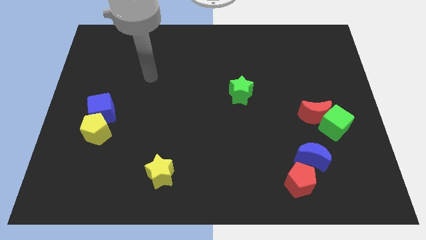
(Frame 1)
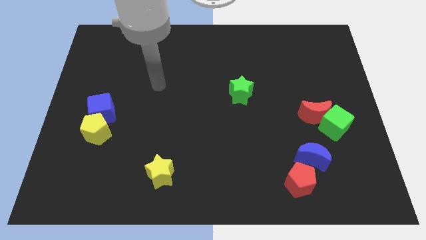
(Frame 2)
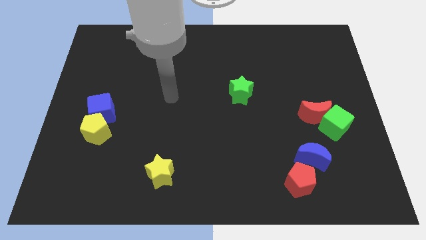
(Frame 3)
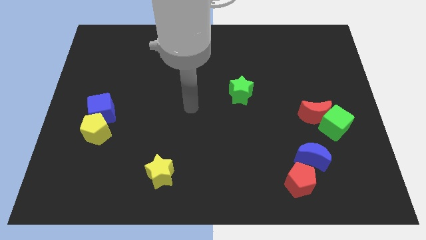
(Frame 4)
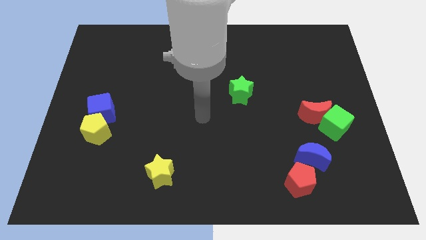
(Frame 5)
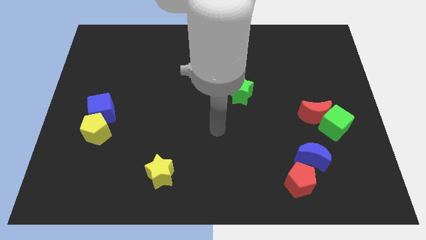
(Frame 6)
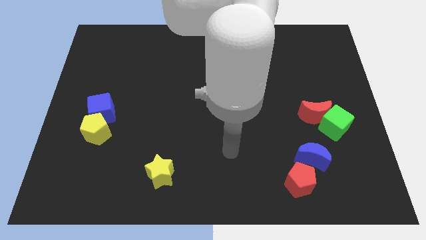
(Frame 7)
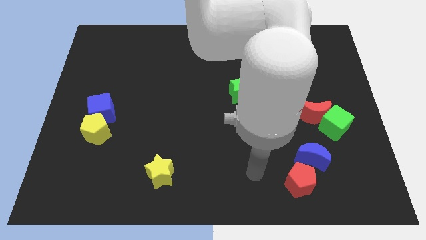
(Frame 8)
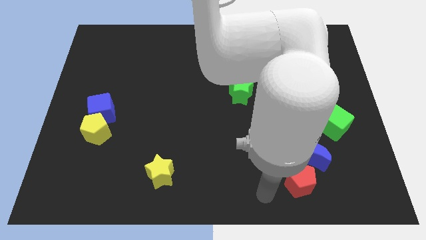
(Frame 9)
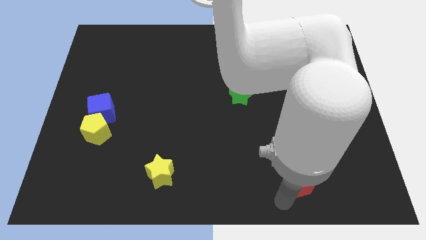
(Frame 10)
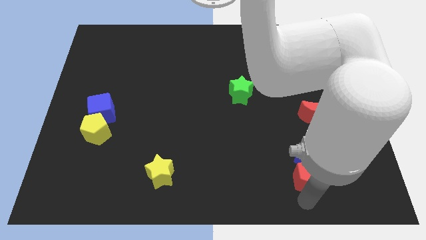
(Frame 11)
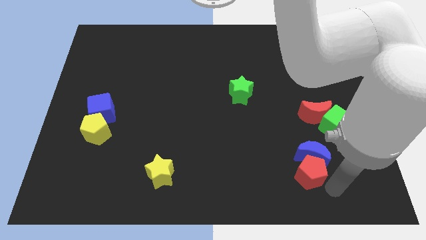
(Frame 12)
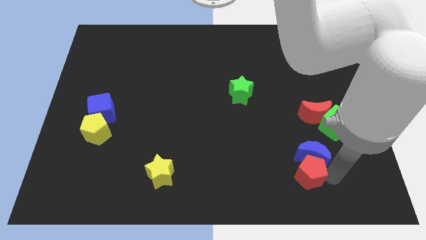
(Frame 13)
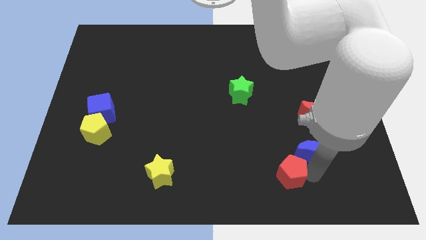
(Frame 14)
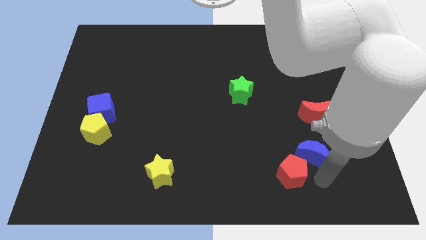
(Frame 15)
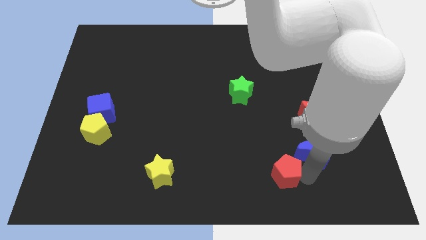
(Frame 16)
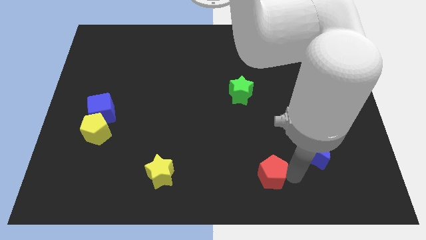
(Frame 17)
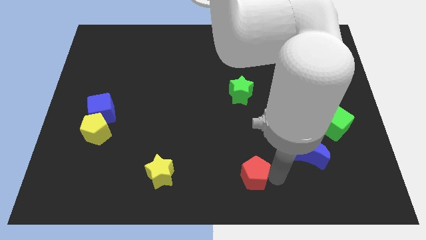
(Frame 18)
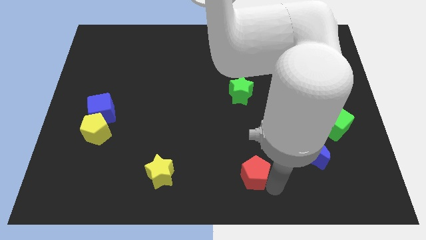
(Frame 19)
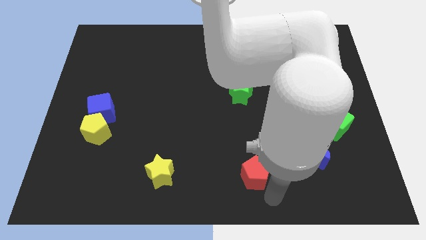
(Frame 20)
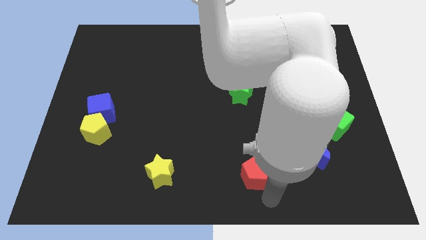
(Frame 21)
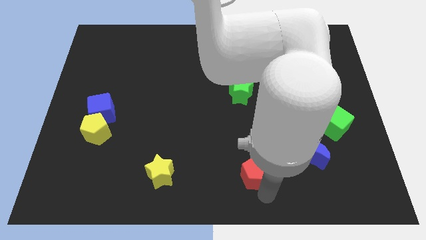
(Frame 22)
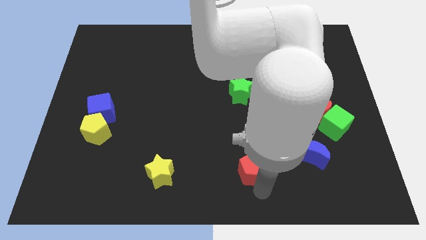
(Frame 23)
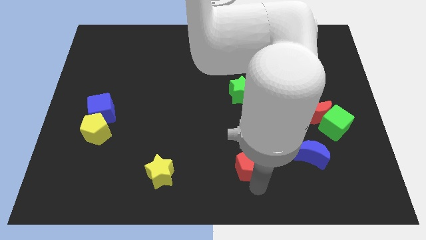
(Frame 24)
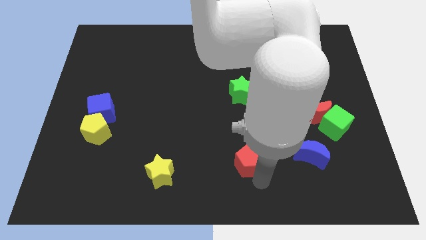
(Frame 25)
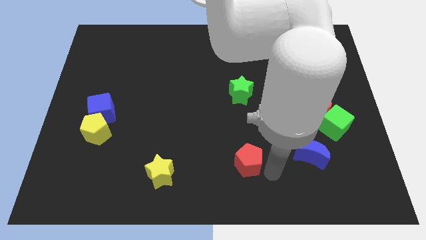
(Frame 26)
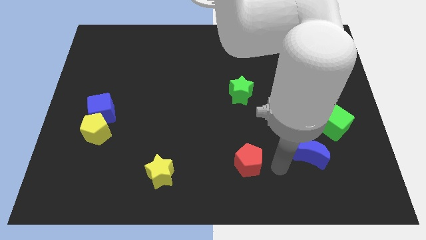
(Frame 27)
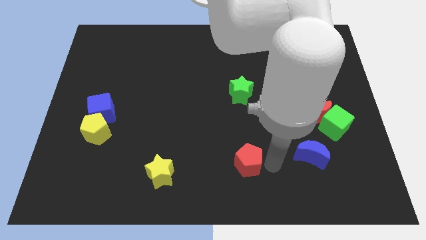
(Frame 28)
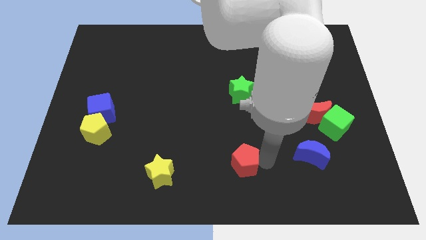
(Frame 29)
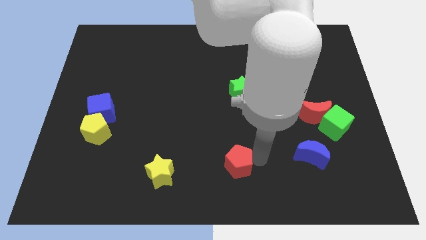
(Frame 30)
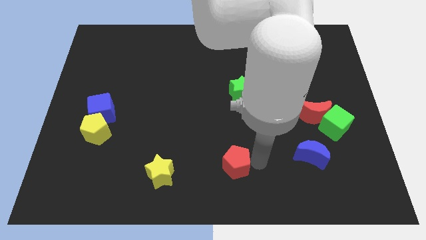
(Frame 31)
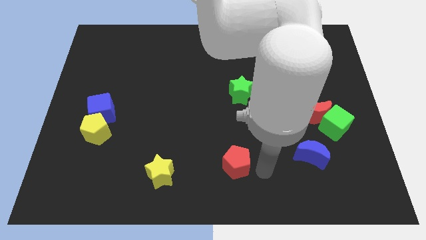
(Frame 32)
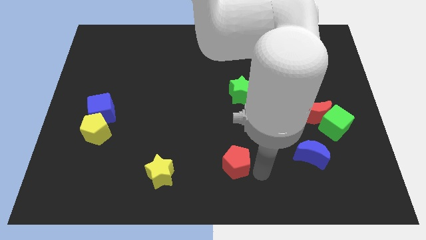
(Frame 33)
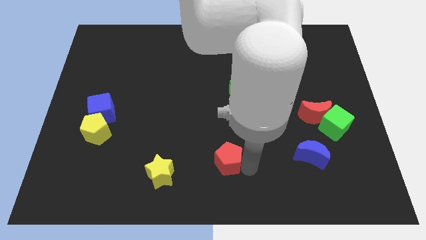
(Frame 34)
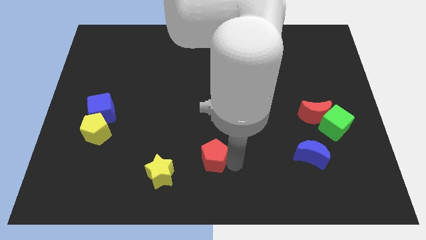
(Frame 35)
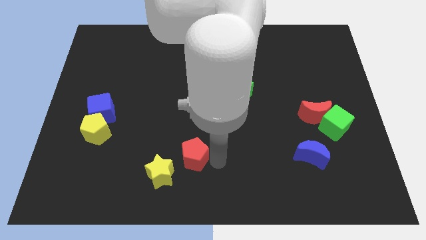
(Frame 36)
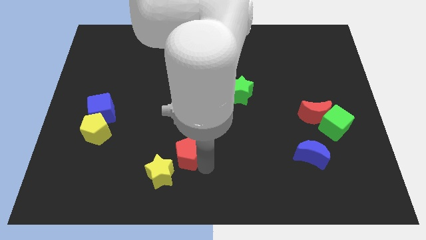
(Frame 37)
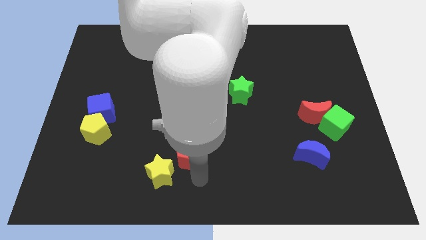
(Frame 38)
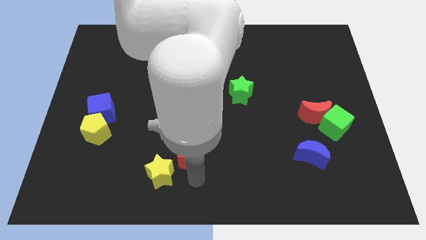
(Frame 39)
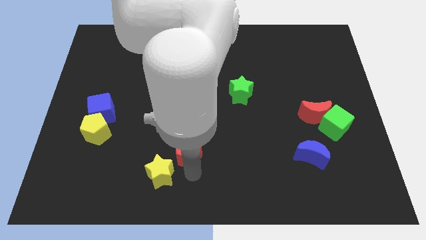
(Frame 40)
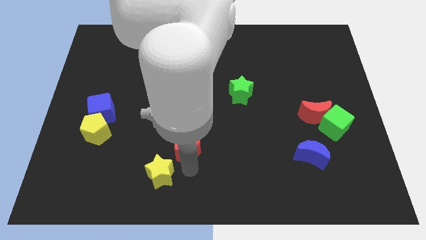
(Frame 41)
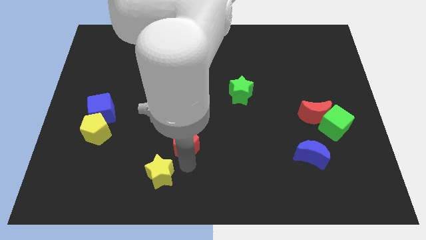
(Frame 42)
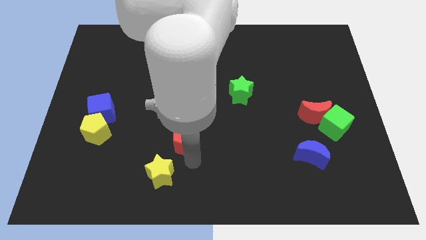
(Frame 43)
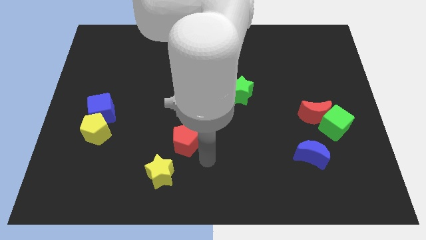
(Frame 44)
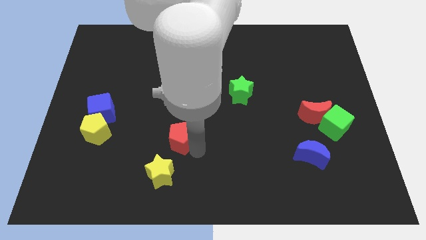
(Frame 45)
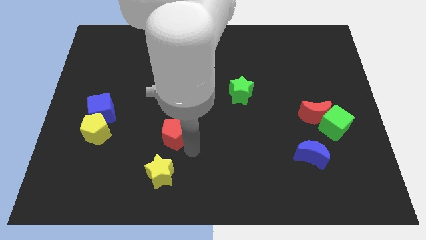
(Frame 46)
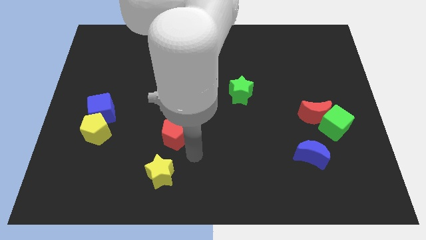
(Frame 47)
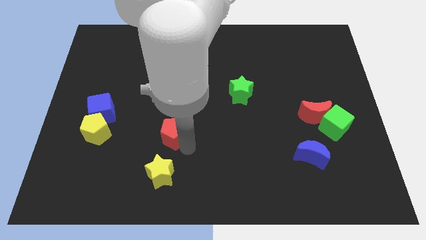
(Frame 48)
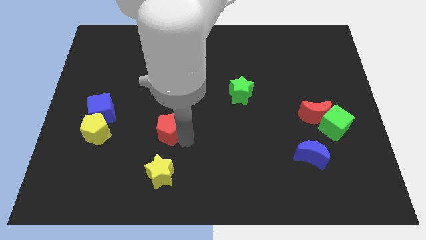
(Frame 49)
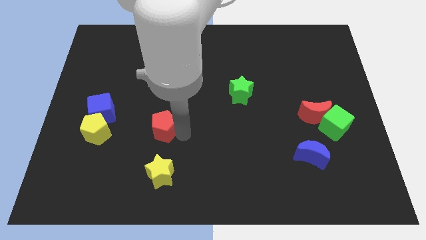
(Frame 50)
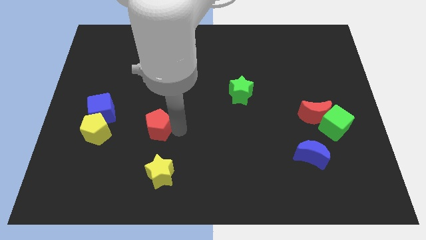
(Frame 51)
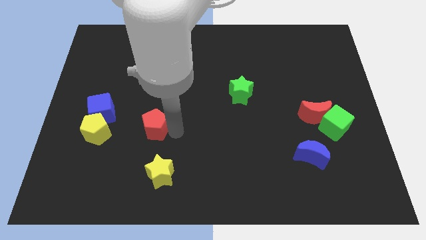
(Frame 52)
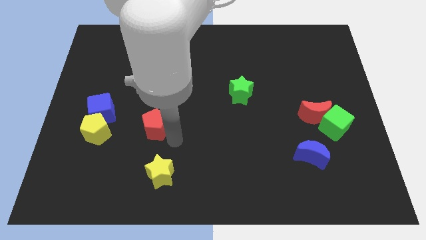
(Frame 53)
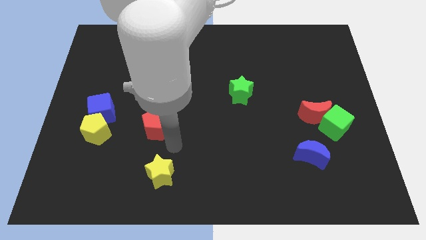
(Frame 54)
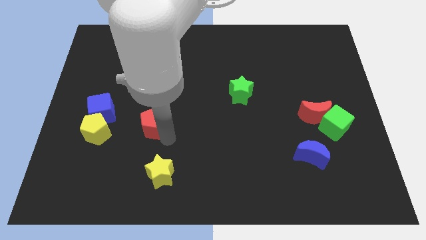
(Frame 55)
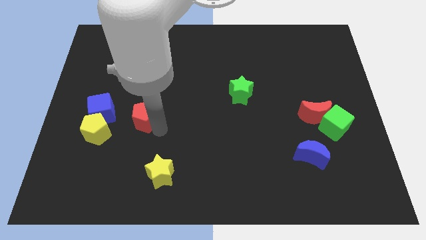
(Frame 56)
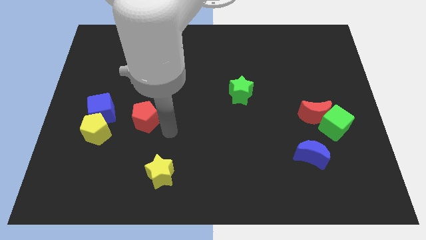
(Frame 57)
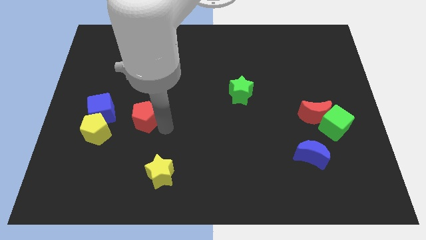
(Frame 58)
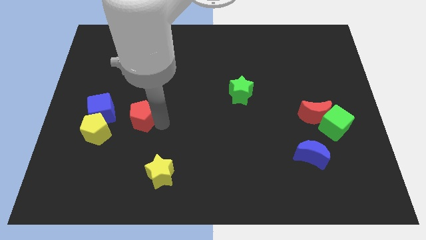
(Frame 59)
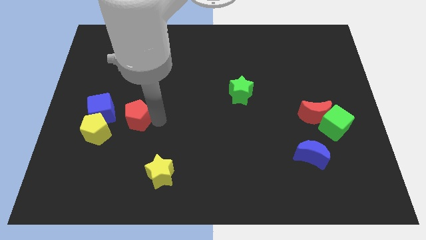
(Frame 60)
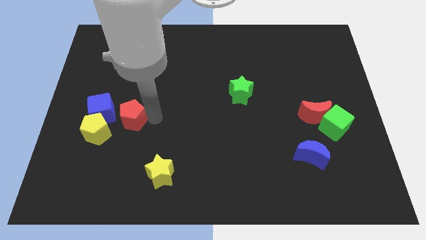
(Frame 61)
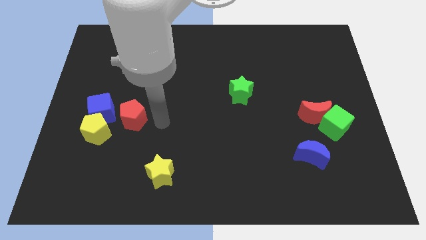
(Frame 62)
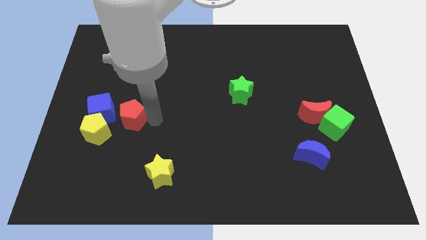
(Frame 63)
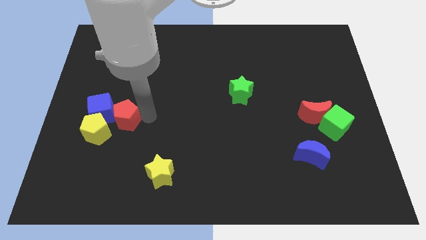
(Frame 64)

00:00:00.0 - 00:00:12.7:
push the red pentagon next to the blue cube
